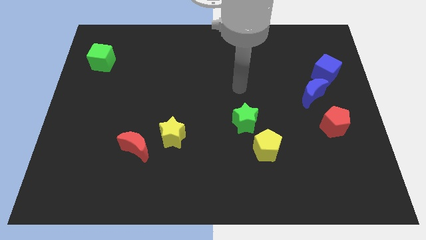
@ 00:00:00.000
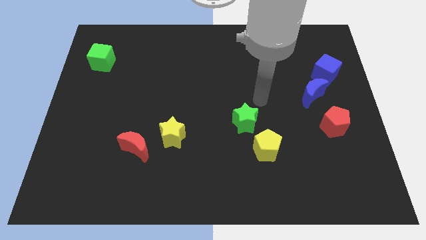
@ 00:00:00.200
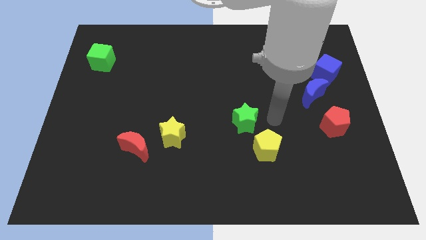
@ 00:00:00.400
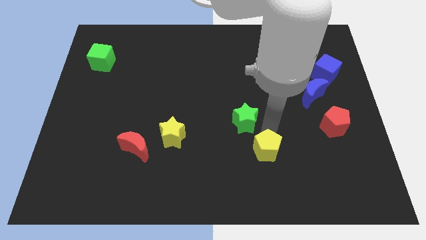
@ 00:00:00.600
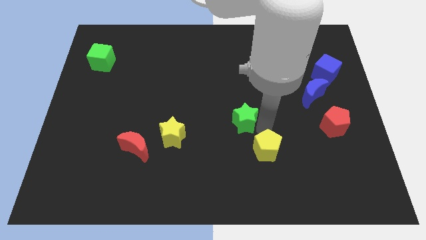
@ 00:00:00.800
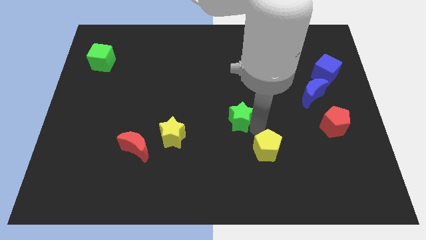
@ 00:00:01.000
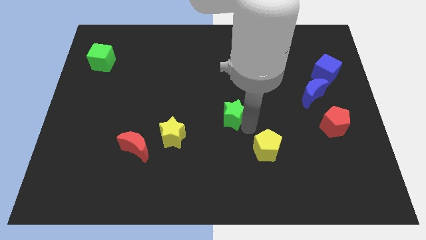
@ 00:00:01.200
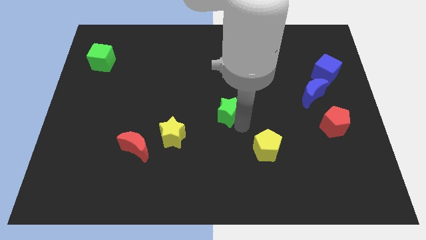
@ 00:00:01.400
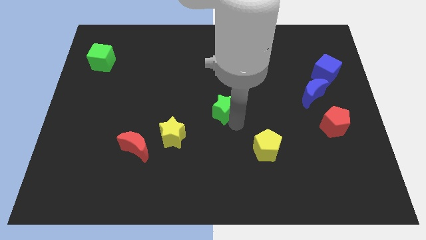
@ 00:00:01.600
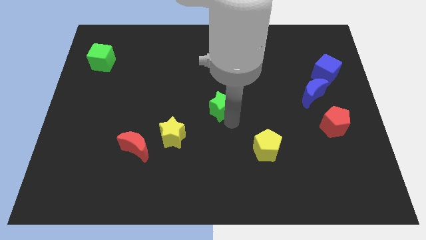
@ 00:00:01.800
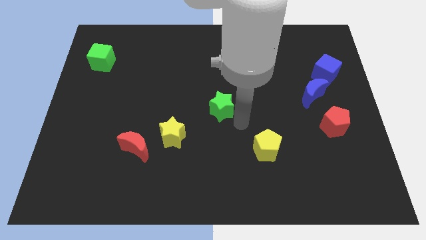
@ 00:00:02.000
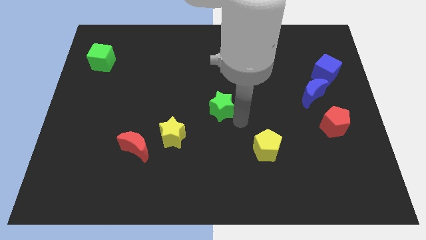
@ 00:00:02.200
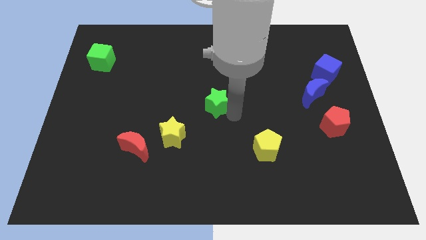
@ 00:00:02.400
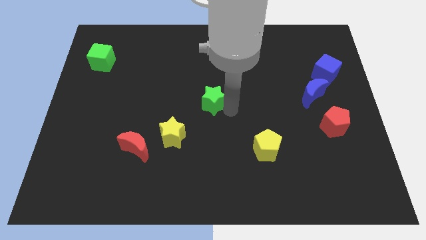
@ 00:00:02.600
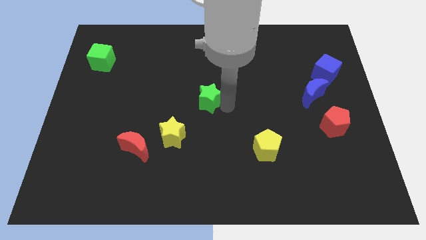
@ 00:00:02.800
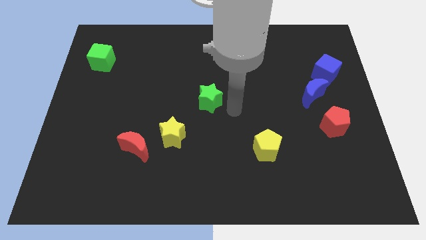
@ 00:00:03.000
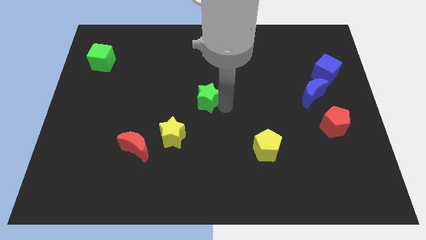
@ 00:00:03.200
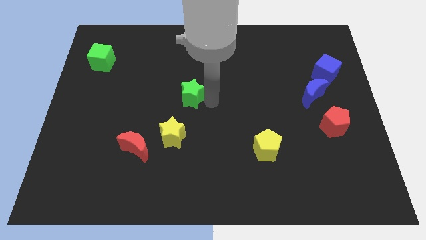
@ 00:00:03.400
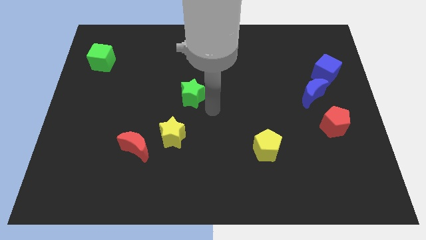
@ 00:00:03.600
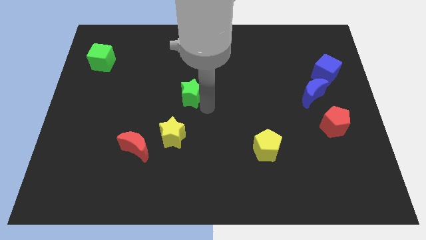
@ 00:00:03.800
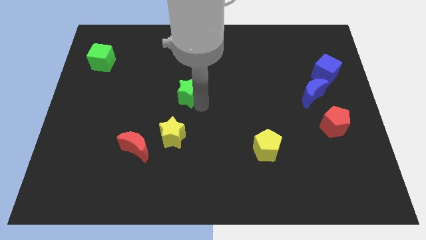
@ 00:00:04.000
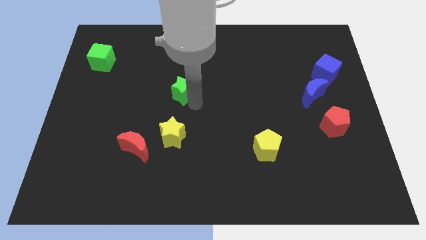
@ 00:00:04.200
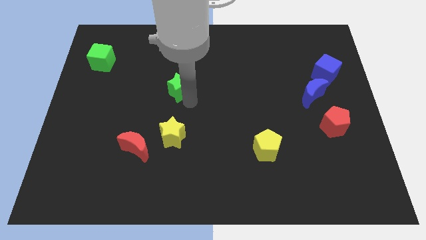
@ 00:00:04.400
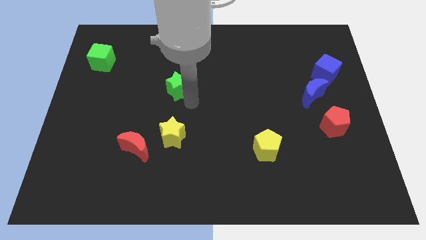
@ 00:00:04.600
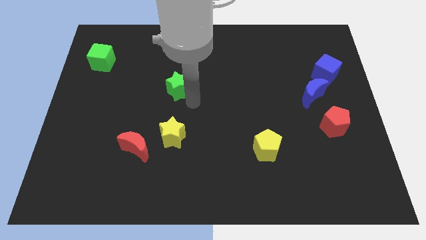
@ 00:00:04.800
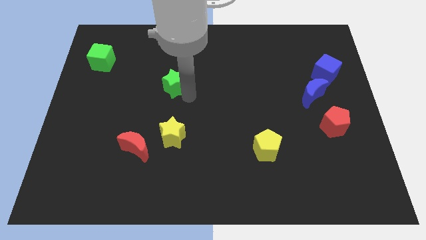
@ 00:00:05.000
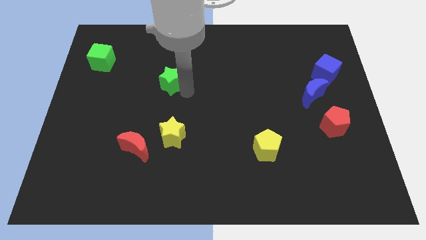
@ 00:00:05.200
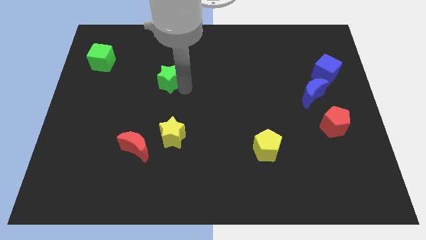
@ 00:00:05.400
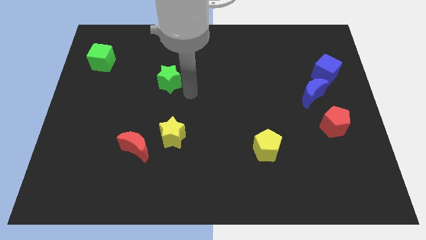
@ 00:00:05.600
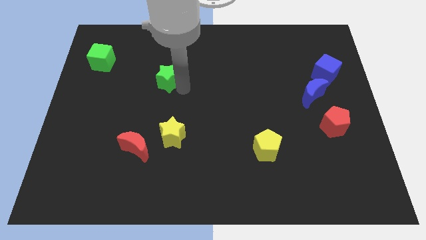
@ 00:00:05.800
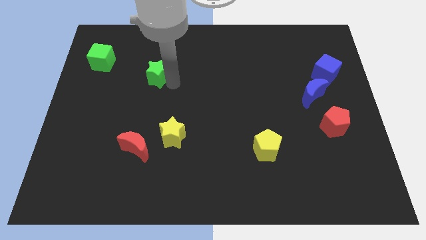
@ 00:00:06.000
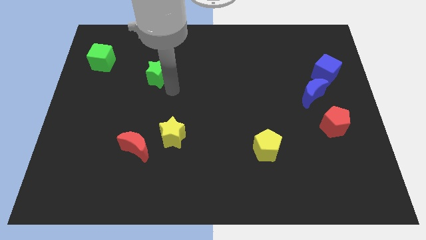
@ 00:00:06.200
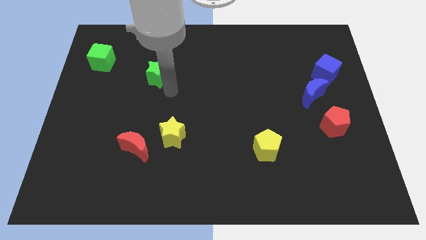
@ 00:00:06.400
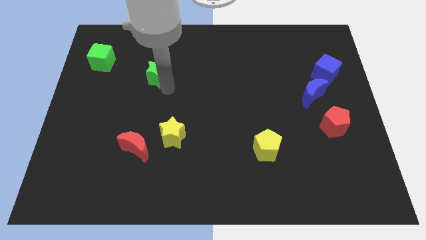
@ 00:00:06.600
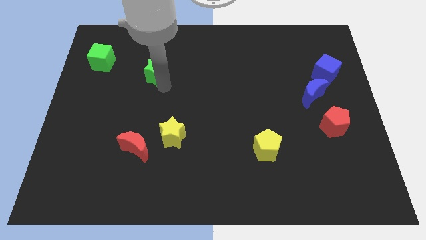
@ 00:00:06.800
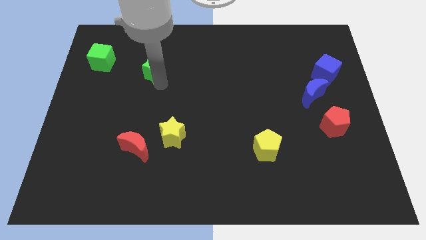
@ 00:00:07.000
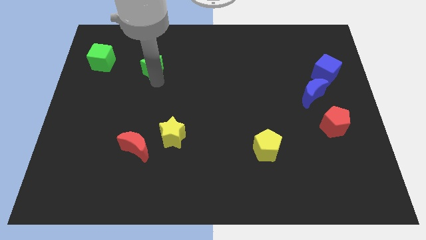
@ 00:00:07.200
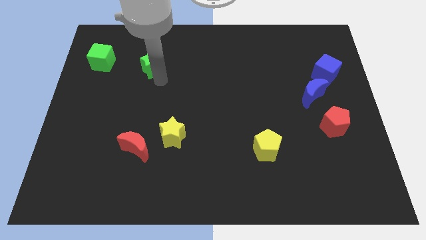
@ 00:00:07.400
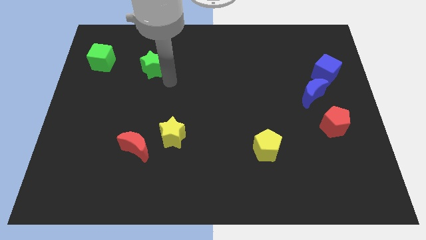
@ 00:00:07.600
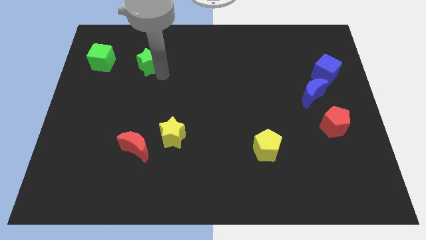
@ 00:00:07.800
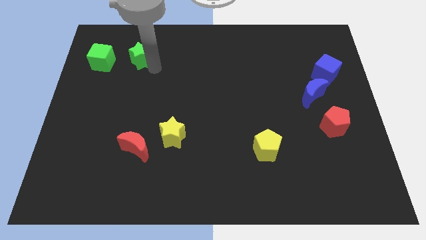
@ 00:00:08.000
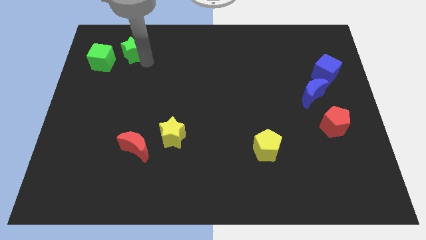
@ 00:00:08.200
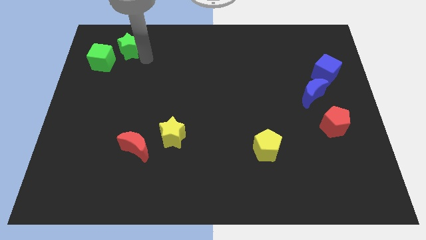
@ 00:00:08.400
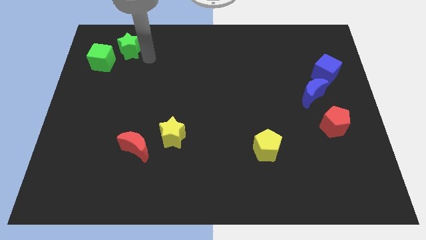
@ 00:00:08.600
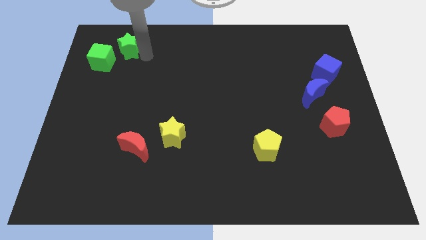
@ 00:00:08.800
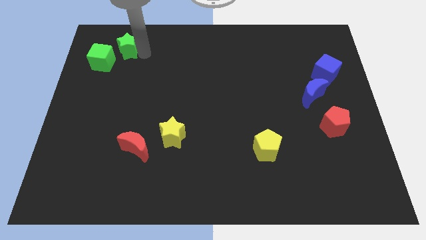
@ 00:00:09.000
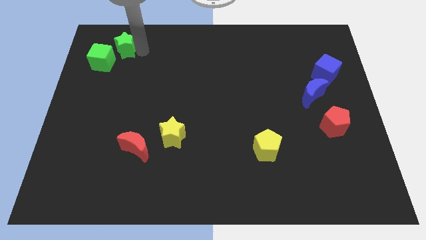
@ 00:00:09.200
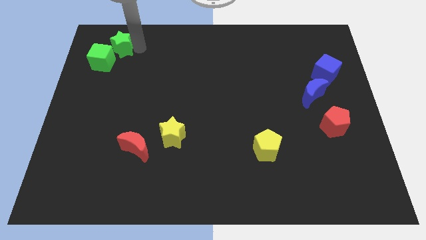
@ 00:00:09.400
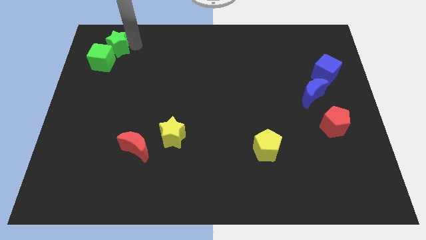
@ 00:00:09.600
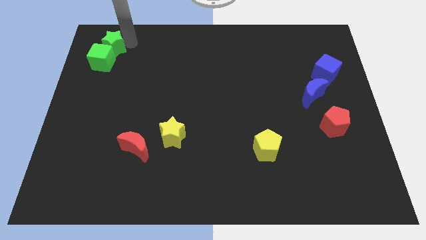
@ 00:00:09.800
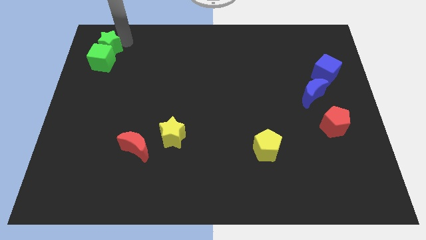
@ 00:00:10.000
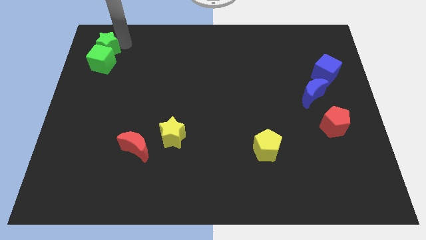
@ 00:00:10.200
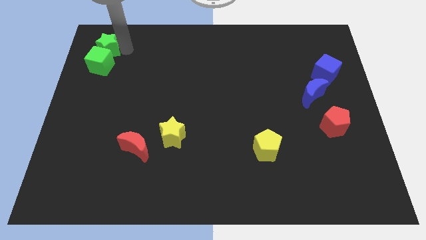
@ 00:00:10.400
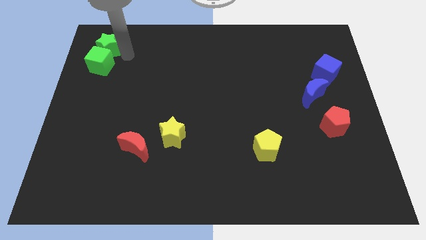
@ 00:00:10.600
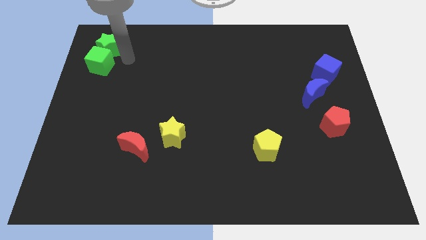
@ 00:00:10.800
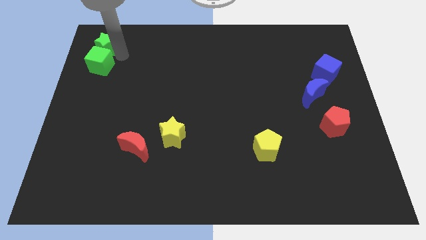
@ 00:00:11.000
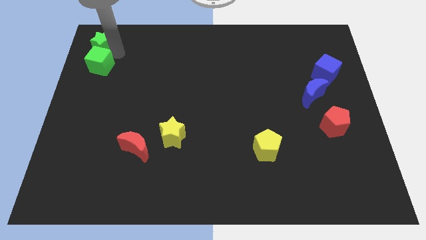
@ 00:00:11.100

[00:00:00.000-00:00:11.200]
move the green star to the top left corner

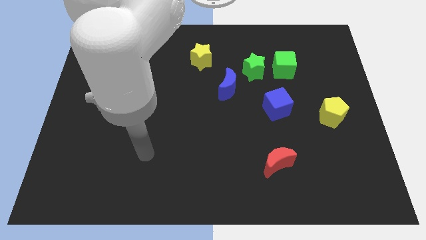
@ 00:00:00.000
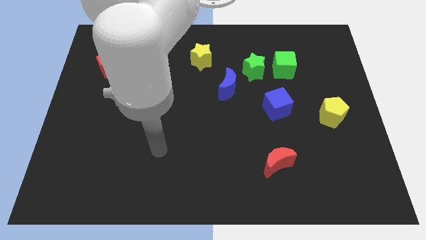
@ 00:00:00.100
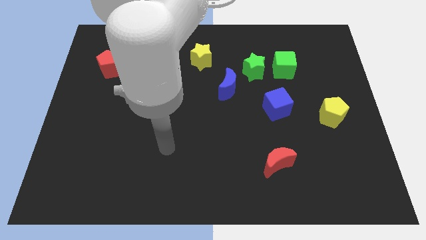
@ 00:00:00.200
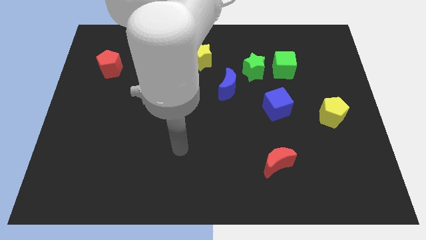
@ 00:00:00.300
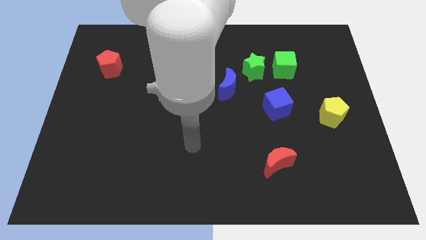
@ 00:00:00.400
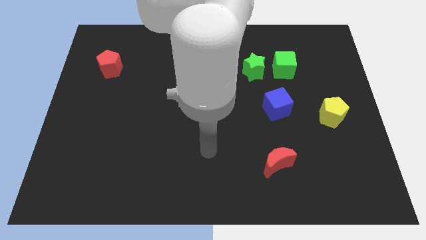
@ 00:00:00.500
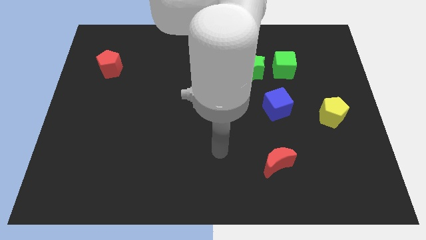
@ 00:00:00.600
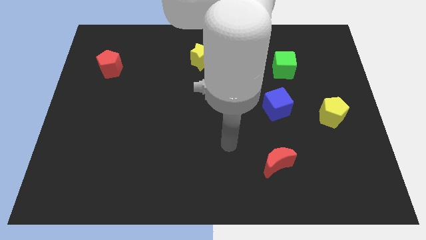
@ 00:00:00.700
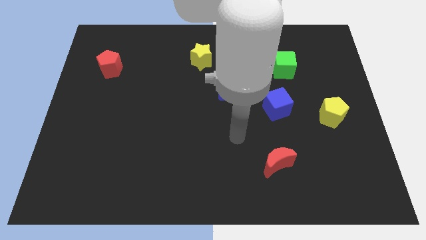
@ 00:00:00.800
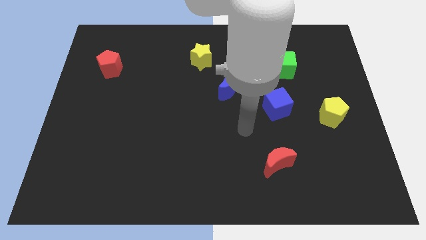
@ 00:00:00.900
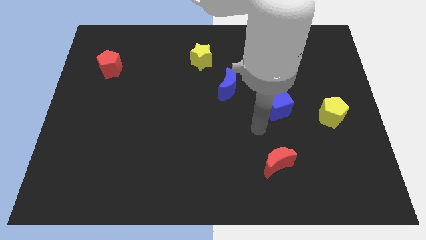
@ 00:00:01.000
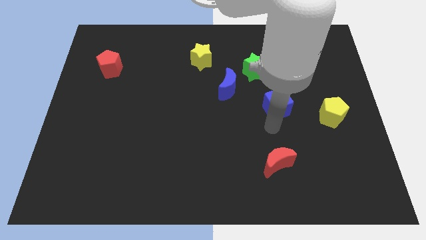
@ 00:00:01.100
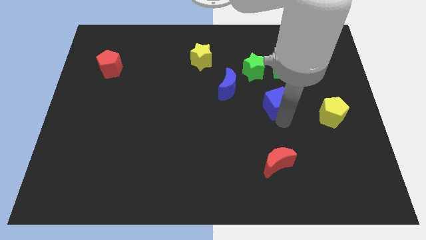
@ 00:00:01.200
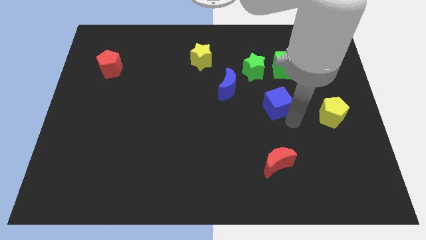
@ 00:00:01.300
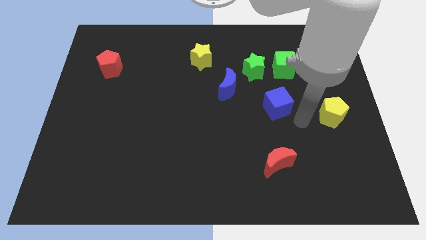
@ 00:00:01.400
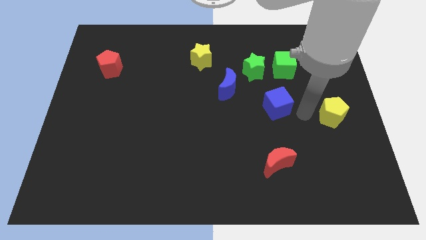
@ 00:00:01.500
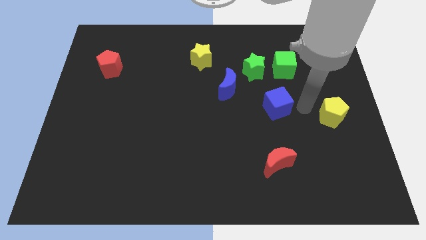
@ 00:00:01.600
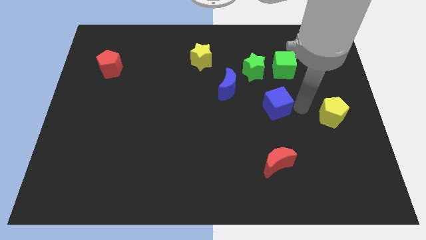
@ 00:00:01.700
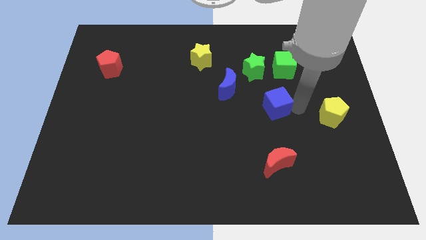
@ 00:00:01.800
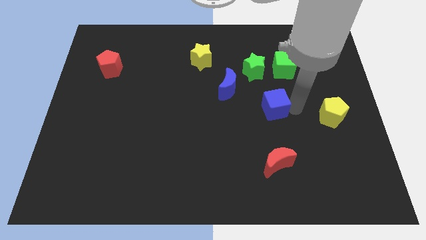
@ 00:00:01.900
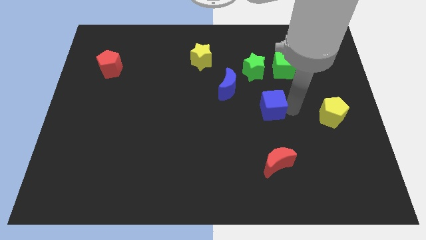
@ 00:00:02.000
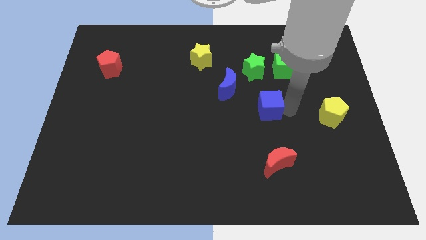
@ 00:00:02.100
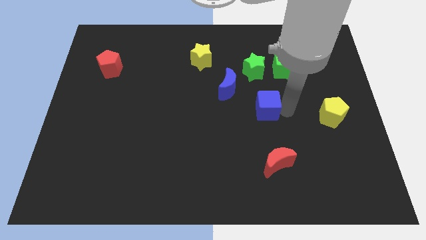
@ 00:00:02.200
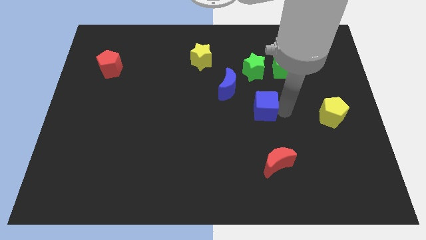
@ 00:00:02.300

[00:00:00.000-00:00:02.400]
slide the blue cube to the middle
